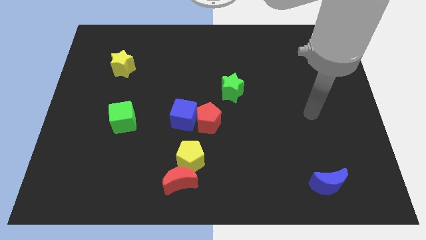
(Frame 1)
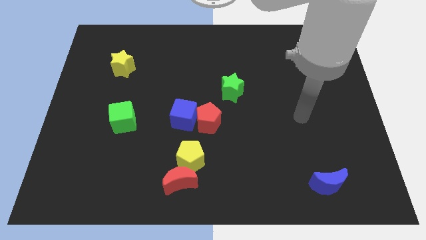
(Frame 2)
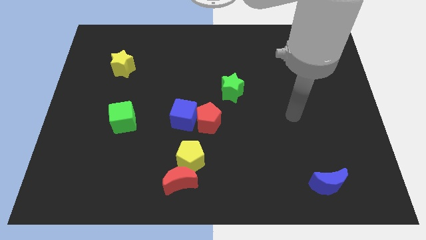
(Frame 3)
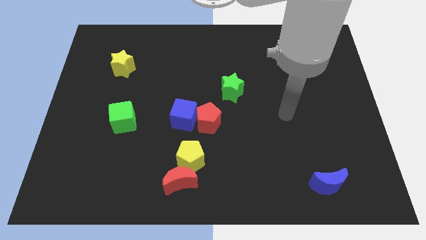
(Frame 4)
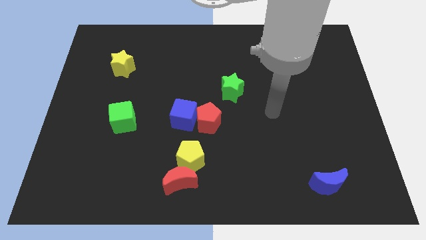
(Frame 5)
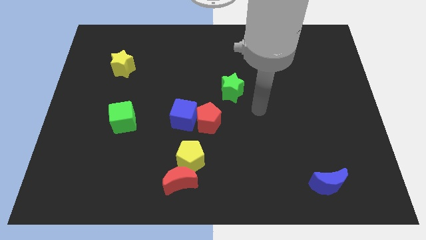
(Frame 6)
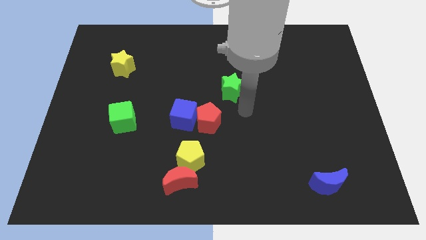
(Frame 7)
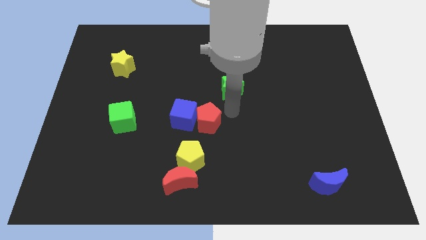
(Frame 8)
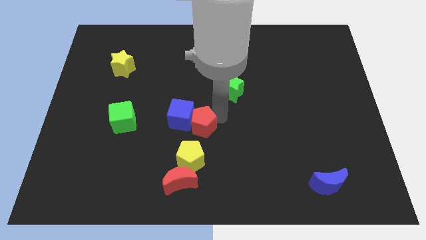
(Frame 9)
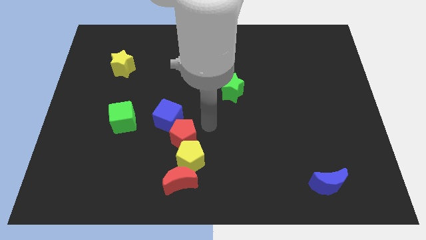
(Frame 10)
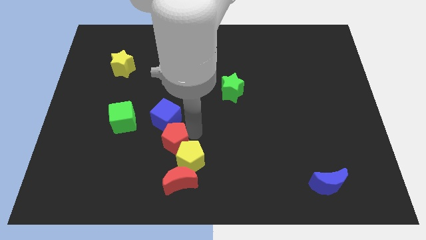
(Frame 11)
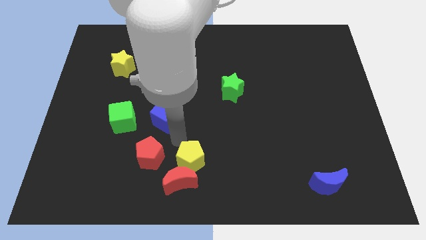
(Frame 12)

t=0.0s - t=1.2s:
move the blue cube away from the red pentagon

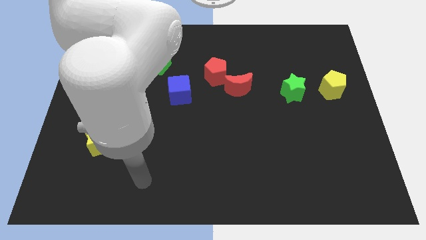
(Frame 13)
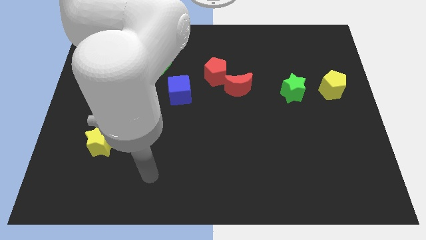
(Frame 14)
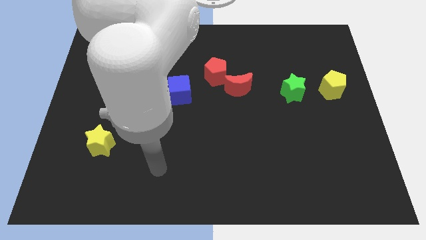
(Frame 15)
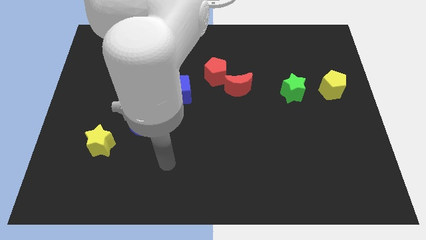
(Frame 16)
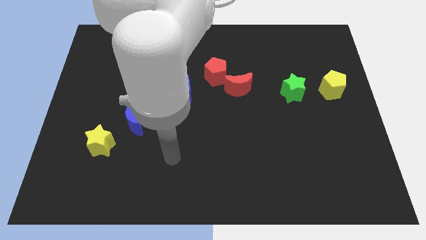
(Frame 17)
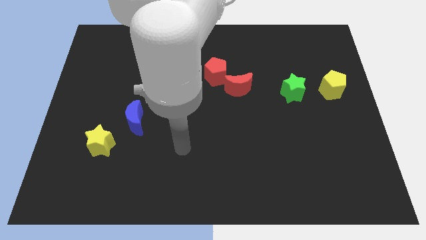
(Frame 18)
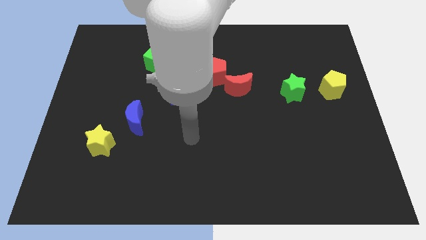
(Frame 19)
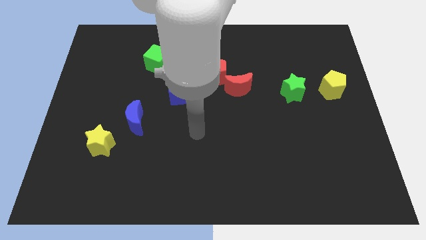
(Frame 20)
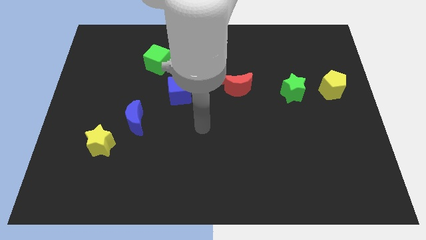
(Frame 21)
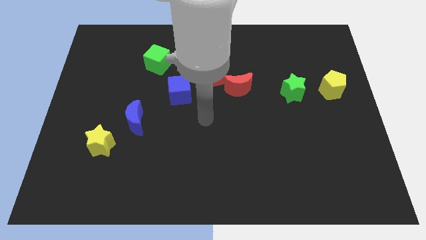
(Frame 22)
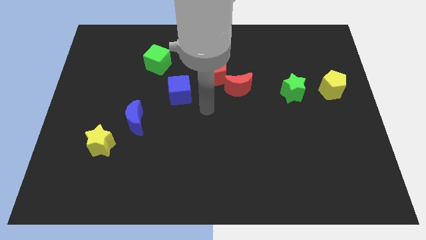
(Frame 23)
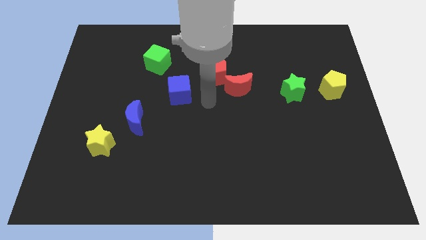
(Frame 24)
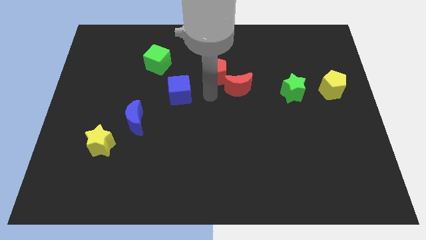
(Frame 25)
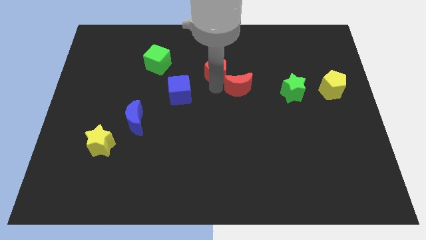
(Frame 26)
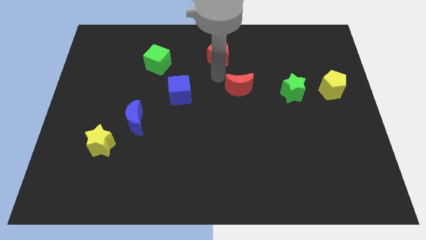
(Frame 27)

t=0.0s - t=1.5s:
pull the red moon apart from the red pentagon

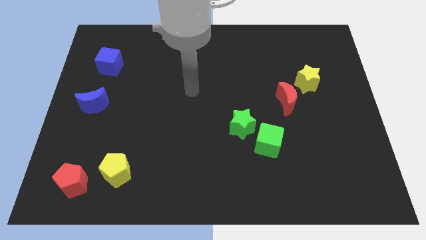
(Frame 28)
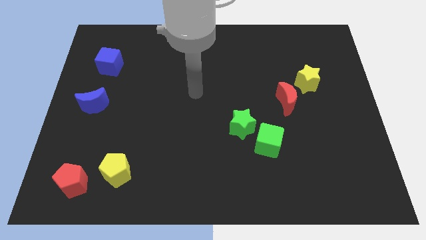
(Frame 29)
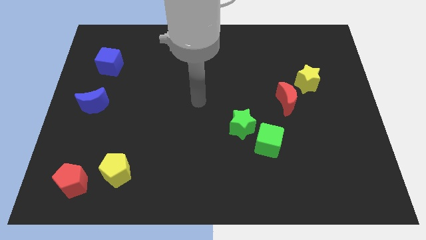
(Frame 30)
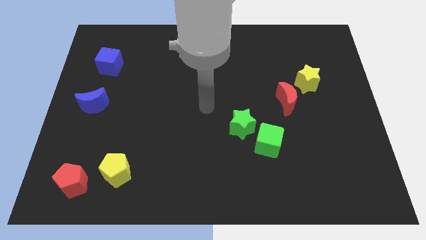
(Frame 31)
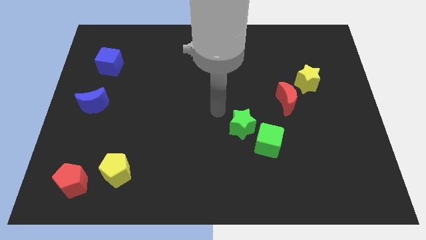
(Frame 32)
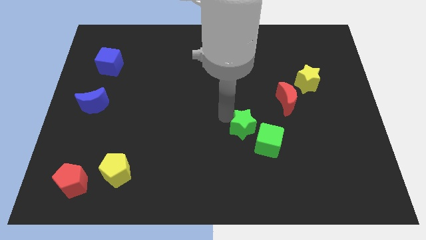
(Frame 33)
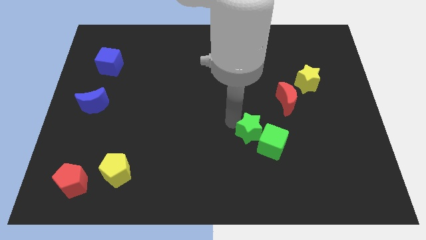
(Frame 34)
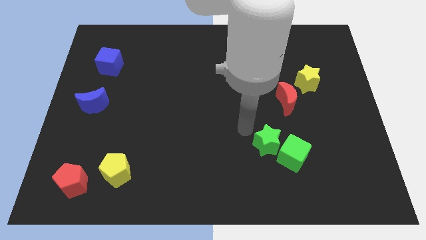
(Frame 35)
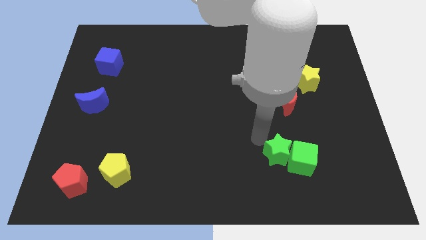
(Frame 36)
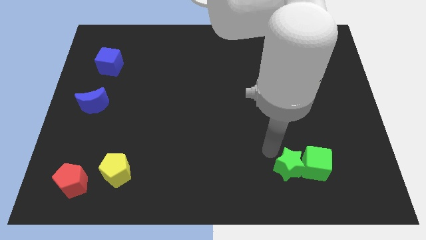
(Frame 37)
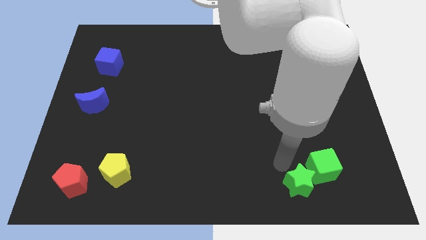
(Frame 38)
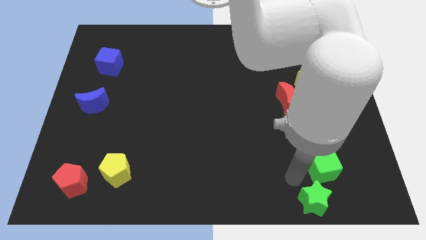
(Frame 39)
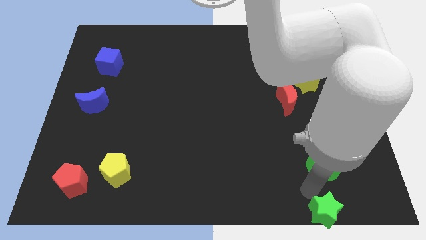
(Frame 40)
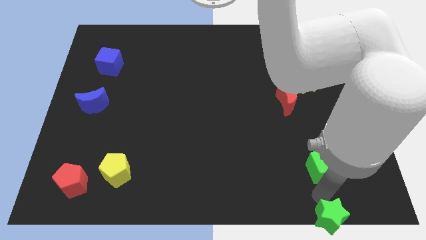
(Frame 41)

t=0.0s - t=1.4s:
move the green cube away from the green star

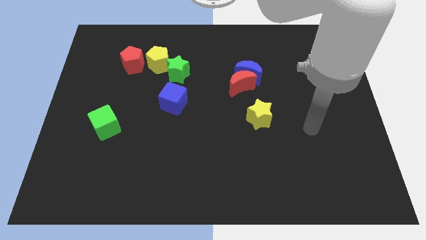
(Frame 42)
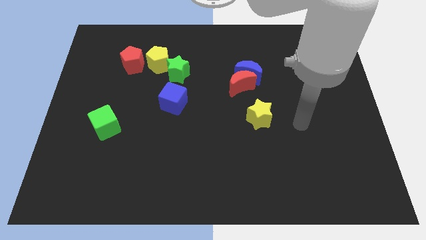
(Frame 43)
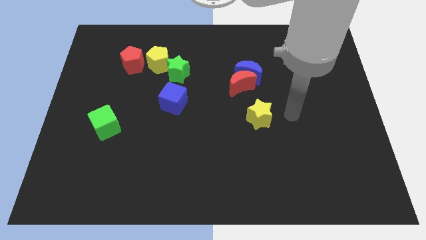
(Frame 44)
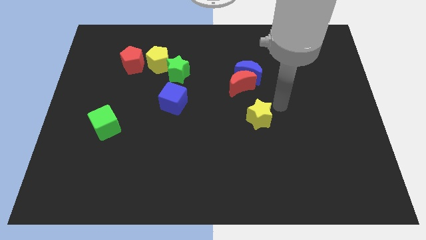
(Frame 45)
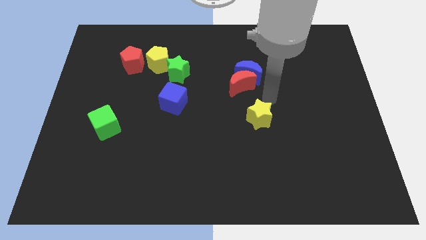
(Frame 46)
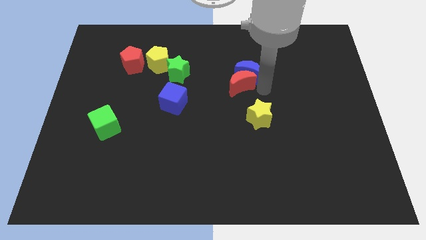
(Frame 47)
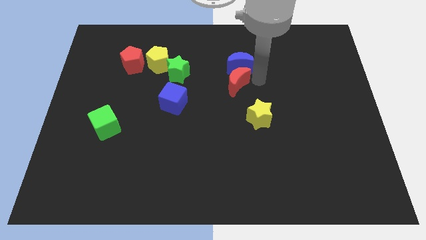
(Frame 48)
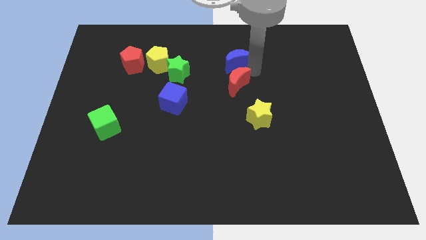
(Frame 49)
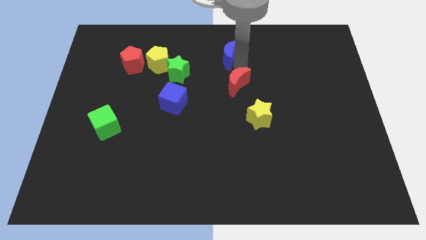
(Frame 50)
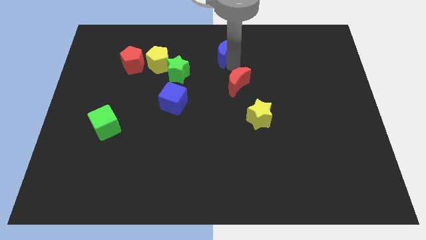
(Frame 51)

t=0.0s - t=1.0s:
move the red moon away from the blue moon

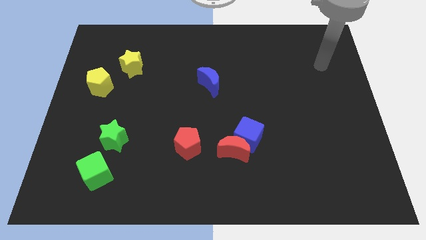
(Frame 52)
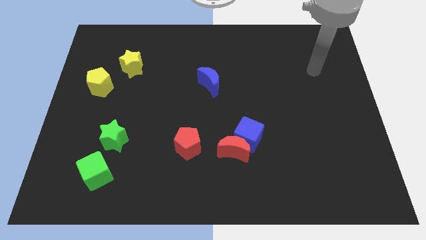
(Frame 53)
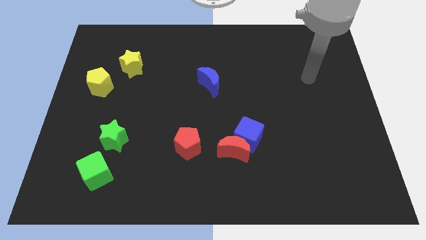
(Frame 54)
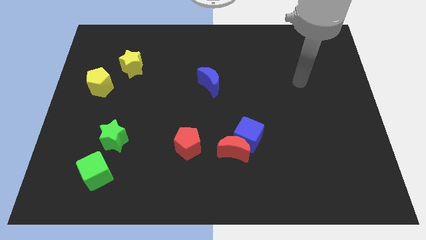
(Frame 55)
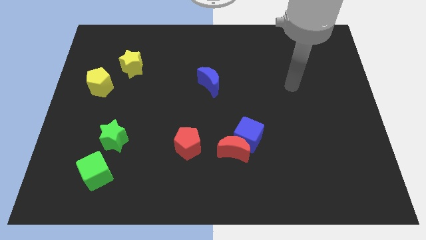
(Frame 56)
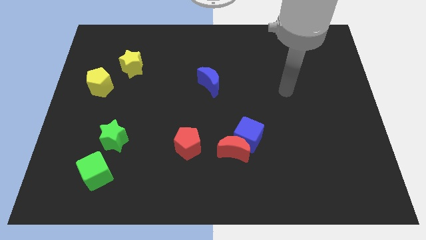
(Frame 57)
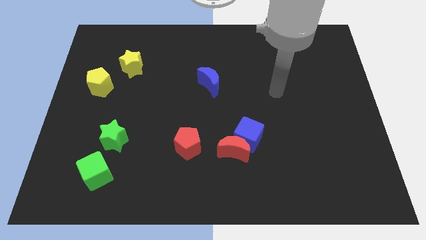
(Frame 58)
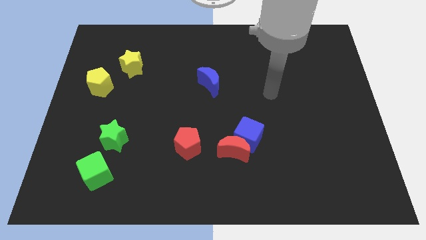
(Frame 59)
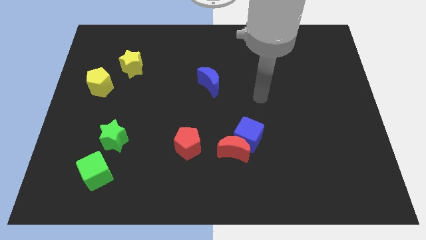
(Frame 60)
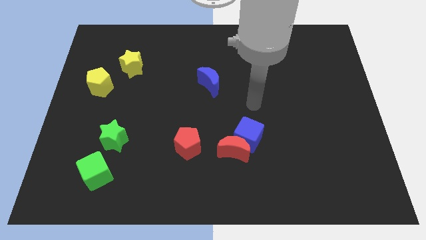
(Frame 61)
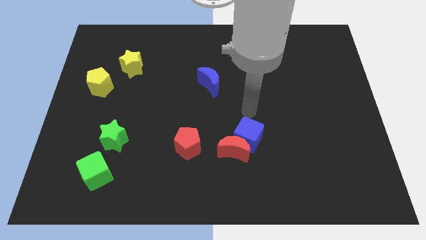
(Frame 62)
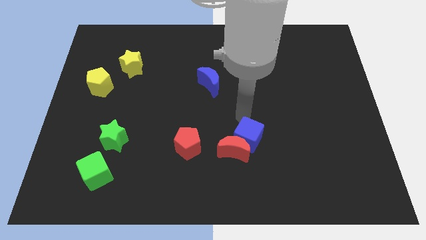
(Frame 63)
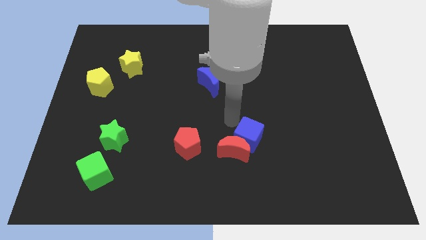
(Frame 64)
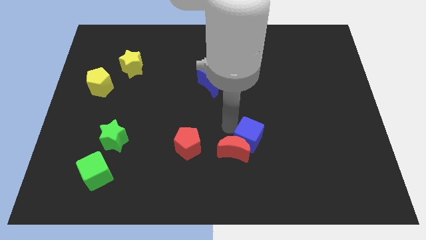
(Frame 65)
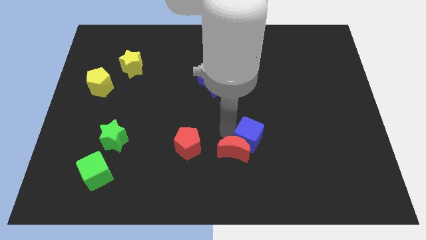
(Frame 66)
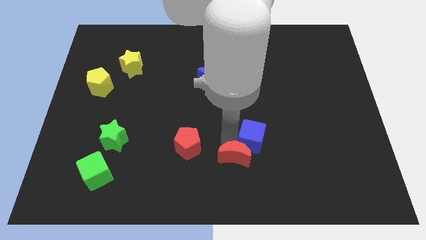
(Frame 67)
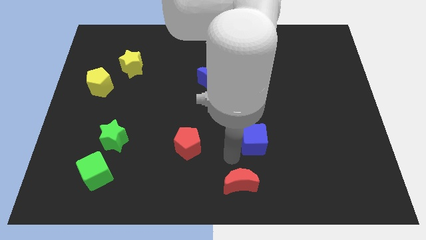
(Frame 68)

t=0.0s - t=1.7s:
pull the blue cube apart from the red moon

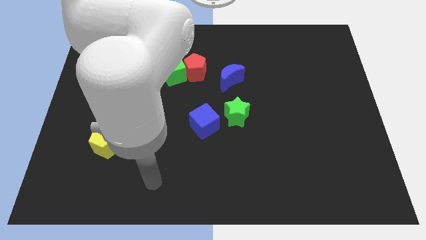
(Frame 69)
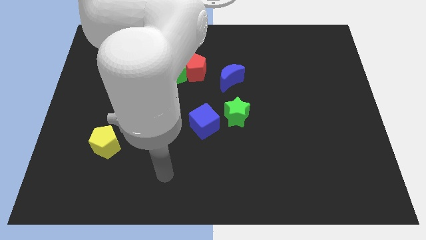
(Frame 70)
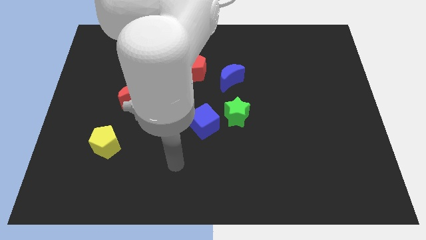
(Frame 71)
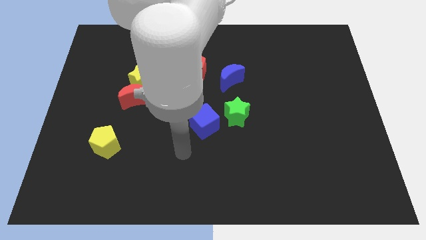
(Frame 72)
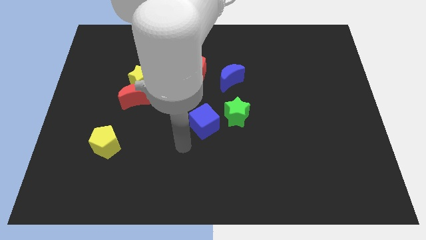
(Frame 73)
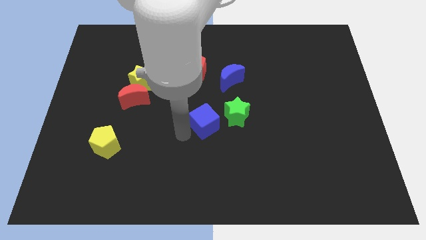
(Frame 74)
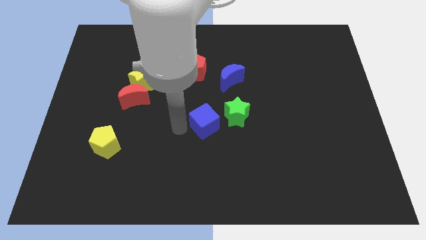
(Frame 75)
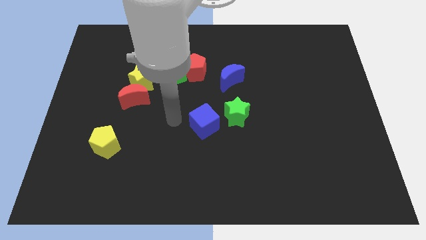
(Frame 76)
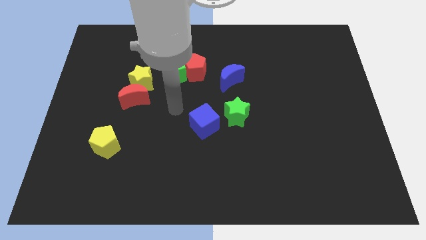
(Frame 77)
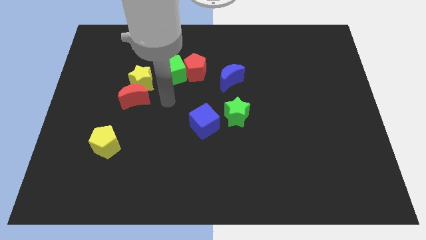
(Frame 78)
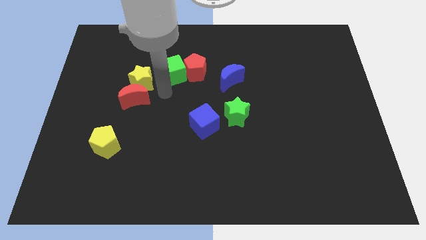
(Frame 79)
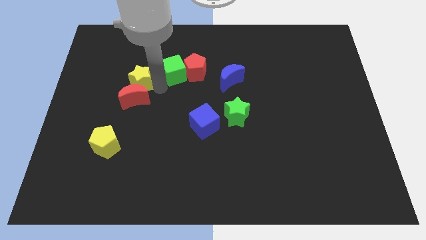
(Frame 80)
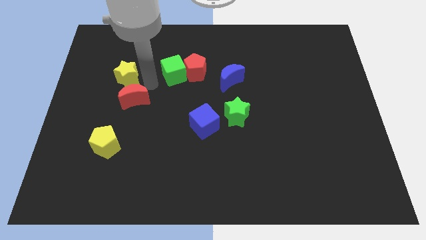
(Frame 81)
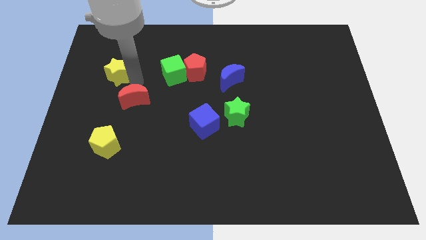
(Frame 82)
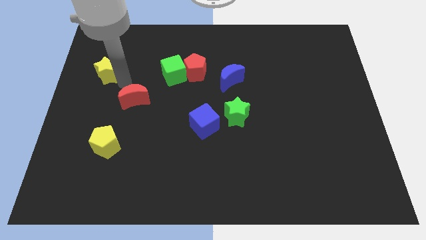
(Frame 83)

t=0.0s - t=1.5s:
move the red moon away from the yellow star

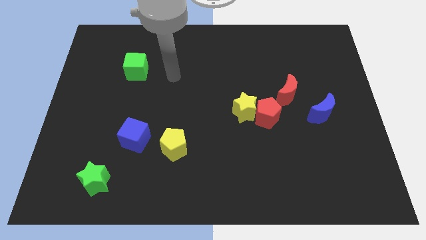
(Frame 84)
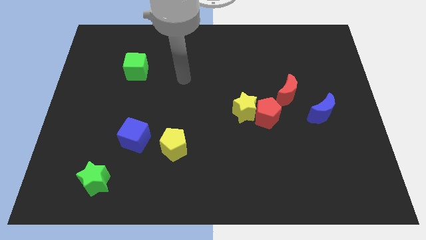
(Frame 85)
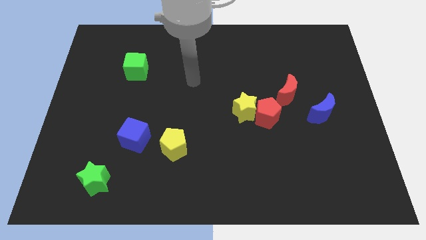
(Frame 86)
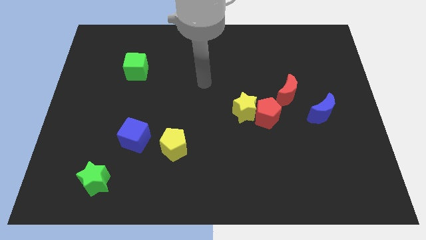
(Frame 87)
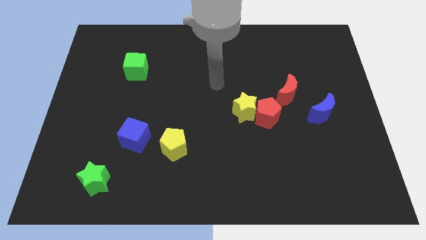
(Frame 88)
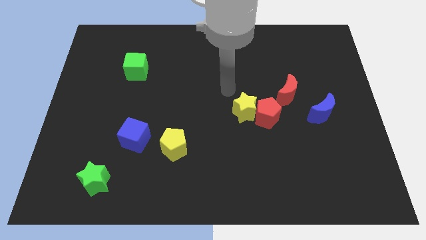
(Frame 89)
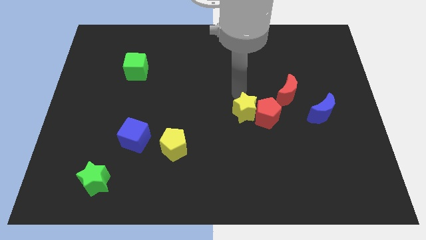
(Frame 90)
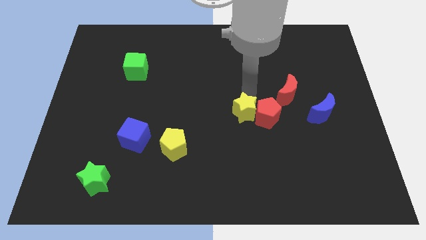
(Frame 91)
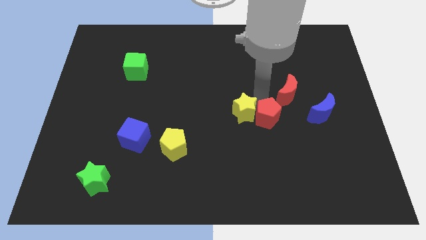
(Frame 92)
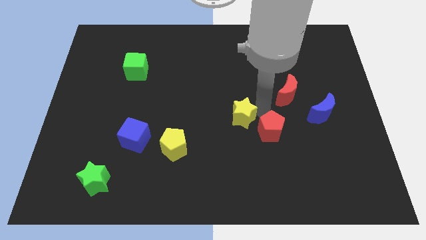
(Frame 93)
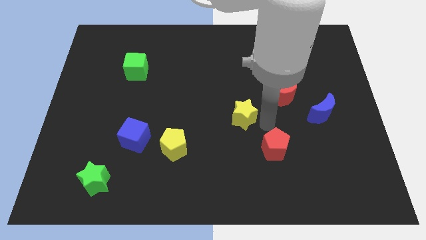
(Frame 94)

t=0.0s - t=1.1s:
separate the yellow star from the red pentagon
